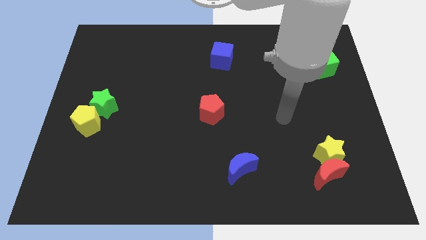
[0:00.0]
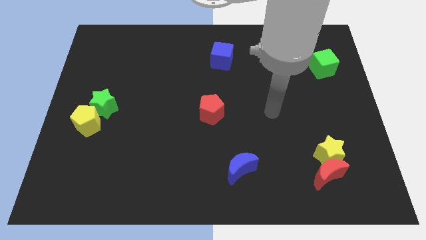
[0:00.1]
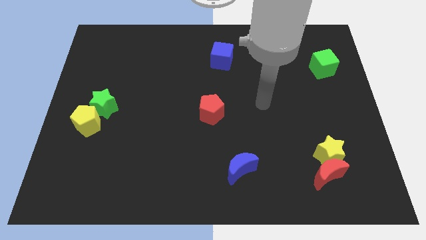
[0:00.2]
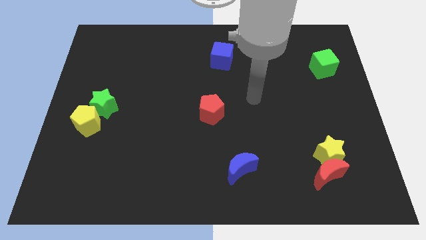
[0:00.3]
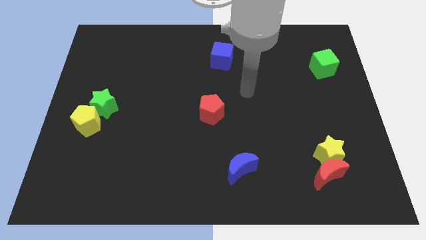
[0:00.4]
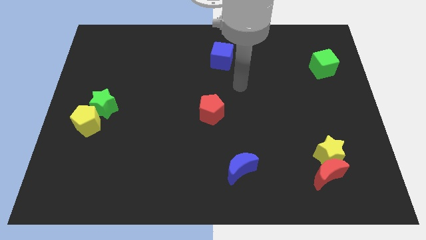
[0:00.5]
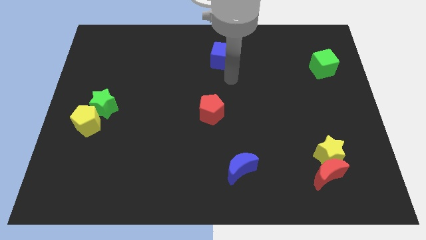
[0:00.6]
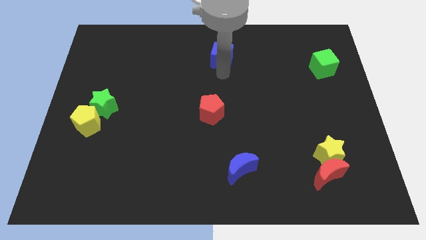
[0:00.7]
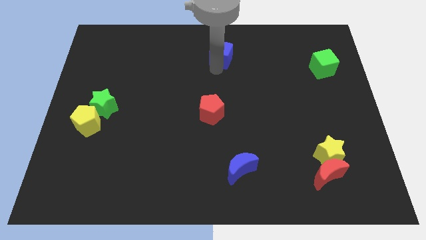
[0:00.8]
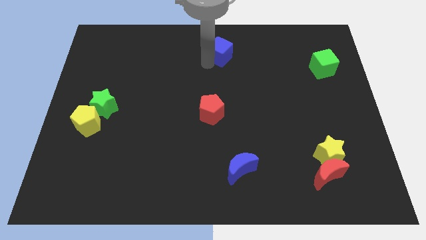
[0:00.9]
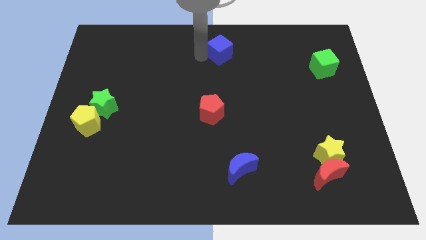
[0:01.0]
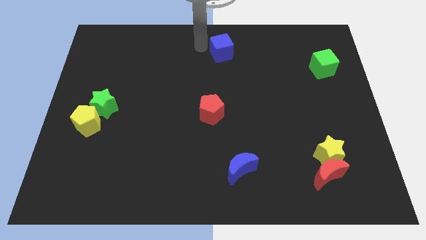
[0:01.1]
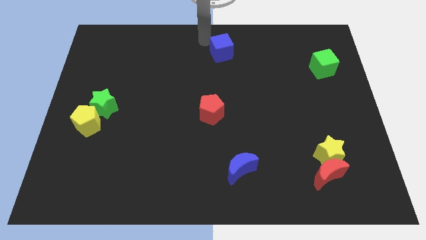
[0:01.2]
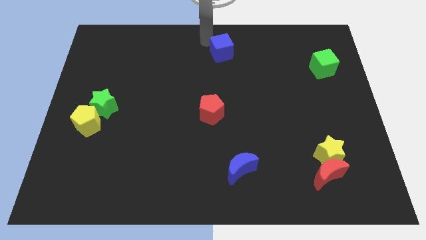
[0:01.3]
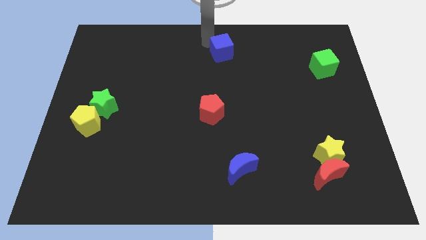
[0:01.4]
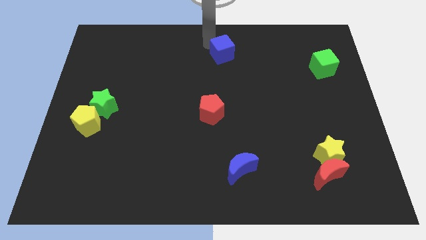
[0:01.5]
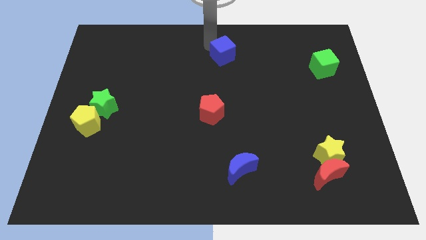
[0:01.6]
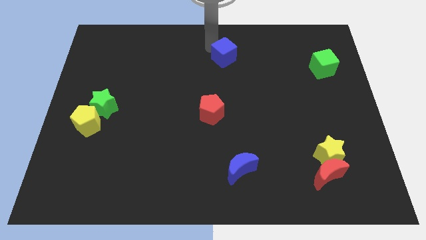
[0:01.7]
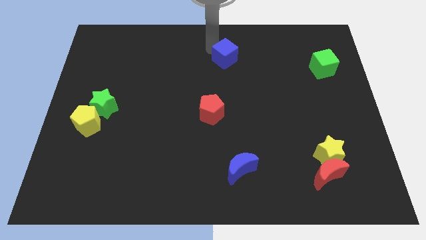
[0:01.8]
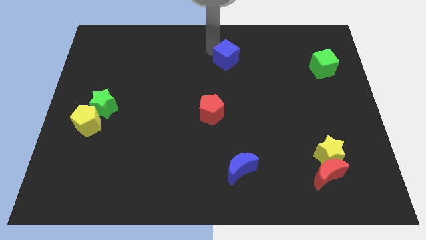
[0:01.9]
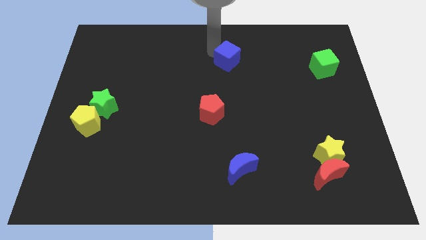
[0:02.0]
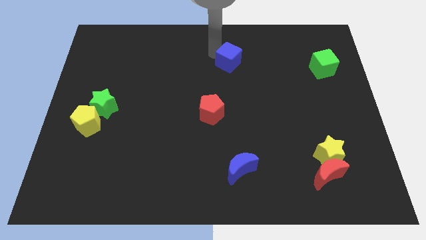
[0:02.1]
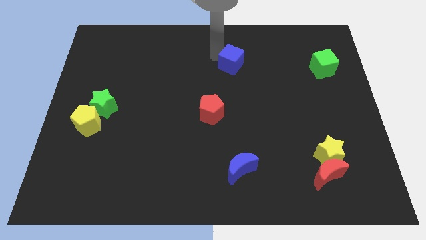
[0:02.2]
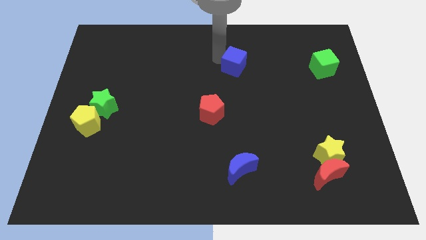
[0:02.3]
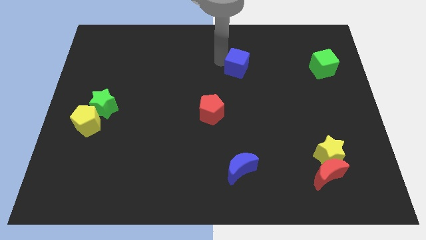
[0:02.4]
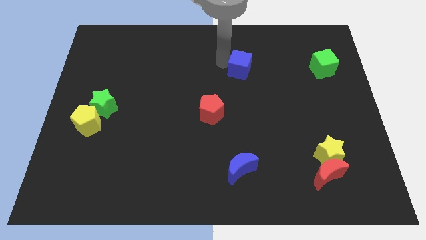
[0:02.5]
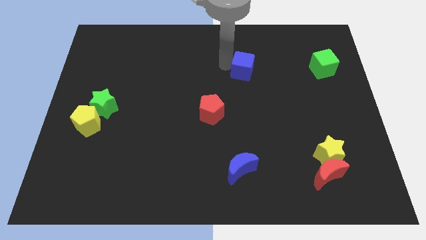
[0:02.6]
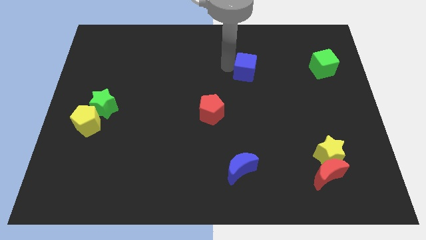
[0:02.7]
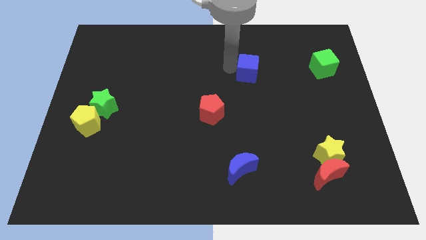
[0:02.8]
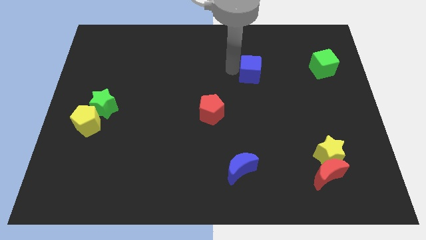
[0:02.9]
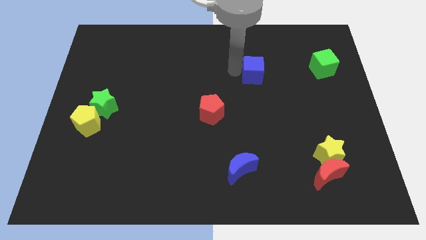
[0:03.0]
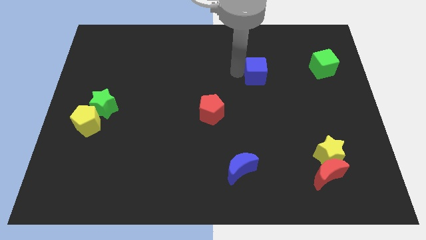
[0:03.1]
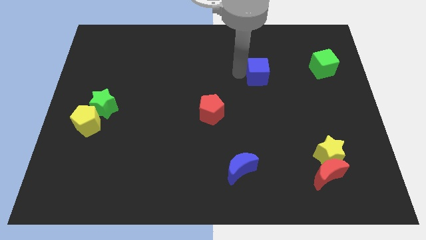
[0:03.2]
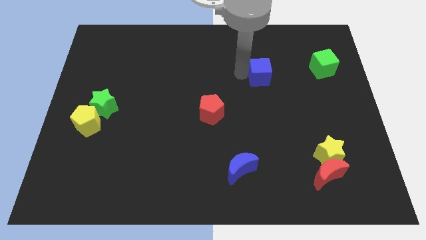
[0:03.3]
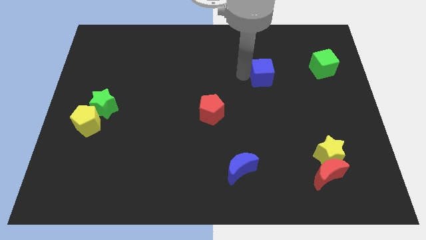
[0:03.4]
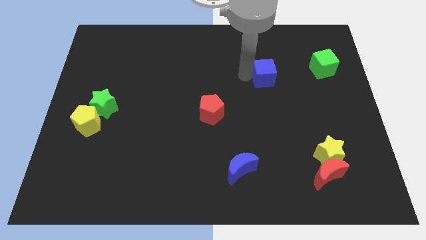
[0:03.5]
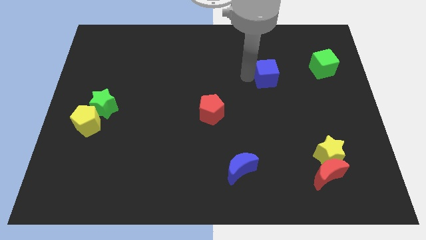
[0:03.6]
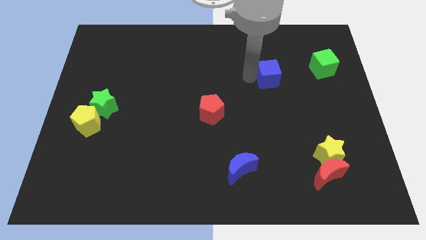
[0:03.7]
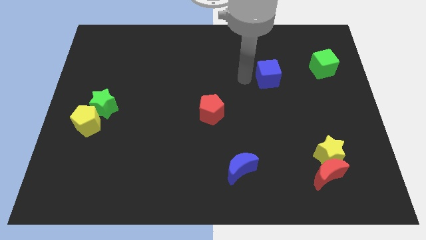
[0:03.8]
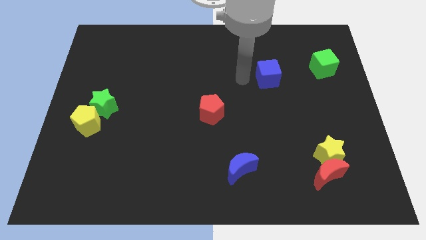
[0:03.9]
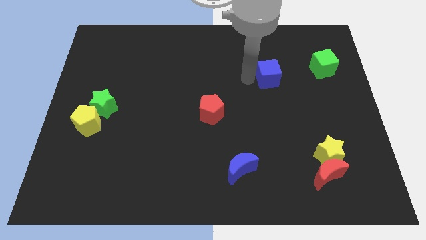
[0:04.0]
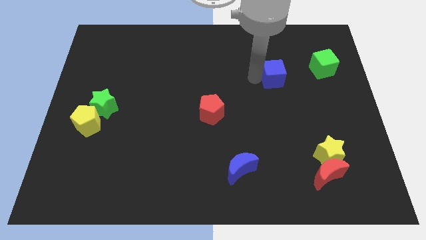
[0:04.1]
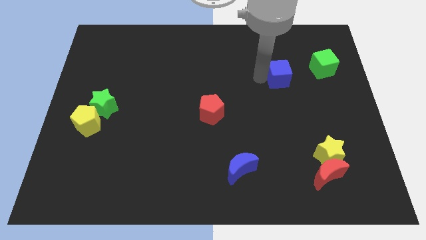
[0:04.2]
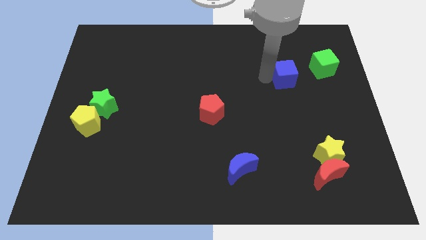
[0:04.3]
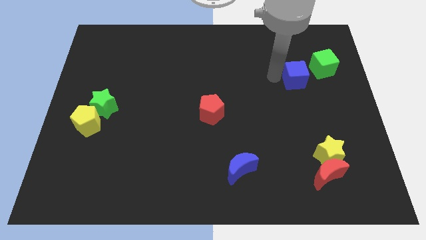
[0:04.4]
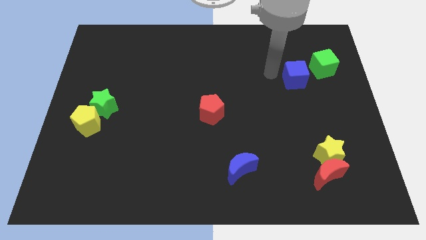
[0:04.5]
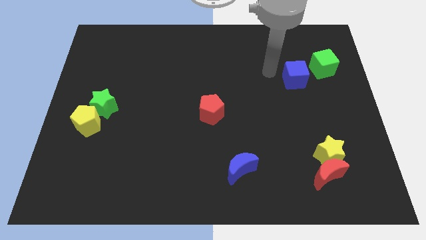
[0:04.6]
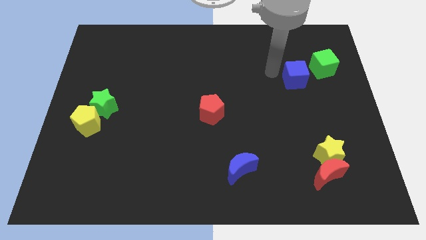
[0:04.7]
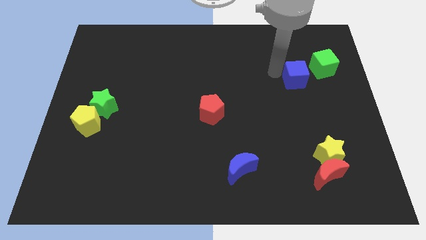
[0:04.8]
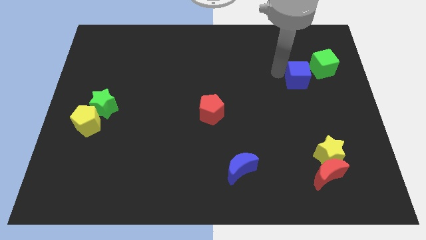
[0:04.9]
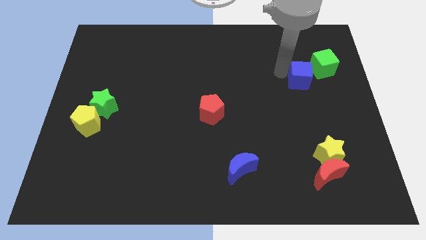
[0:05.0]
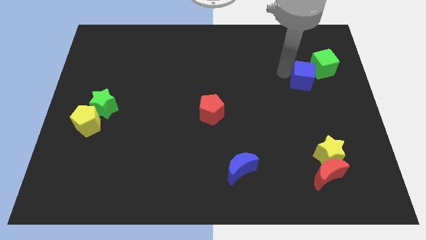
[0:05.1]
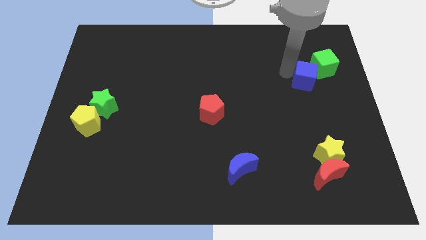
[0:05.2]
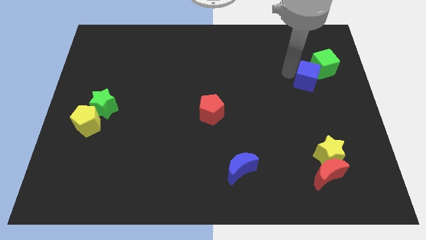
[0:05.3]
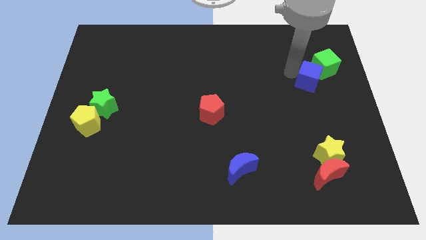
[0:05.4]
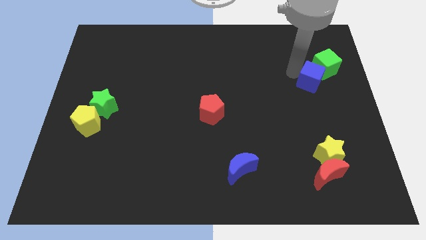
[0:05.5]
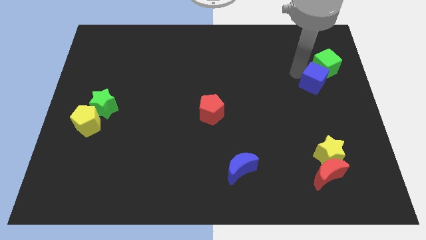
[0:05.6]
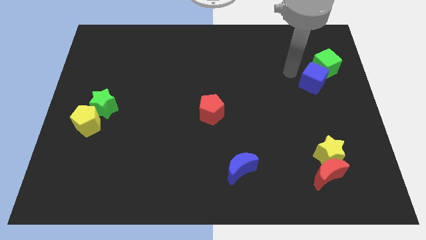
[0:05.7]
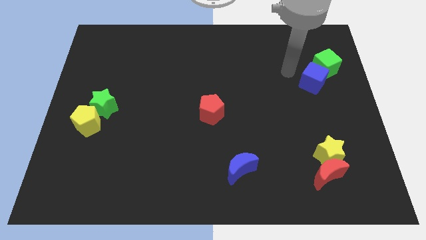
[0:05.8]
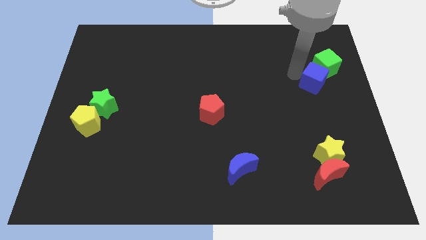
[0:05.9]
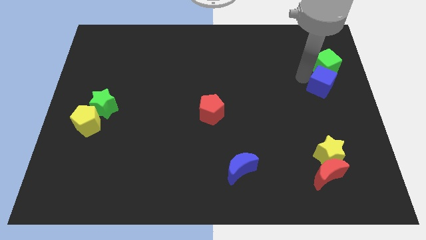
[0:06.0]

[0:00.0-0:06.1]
push the blue cube to the right side
